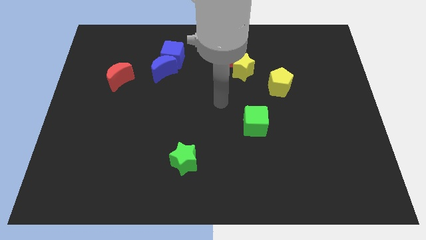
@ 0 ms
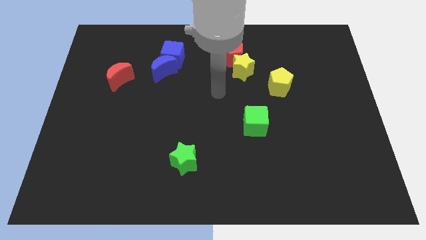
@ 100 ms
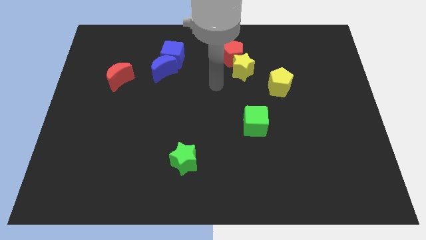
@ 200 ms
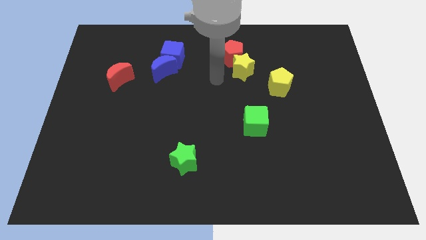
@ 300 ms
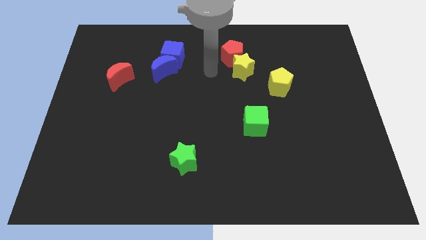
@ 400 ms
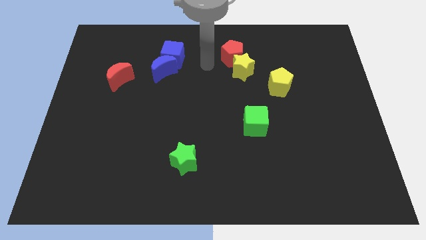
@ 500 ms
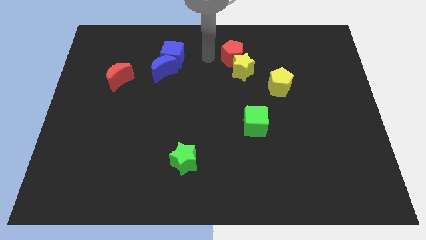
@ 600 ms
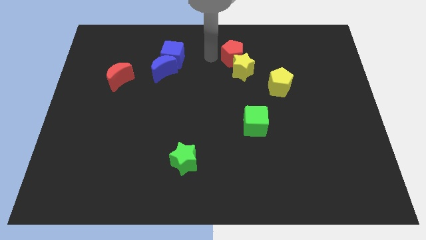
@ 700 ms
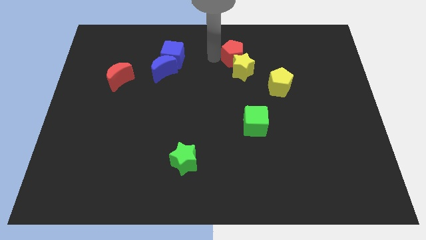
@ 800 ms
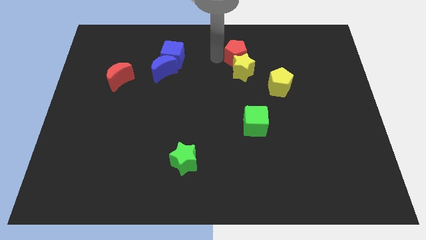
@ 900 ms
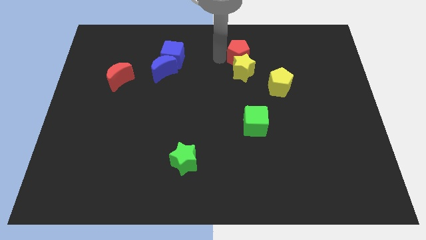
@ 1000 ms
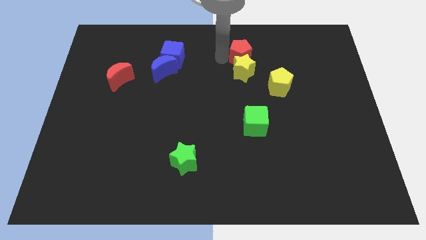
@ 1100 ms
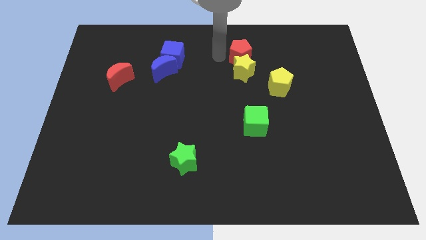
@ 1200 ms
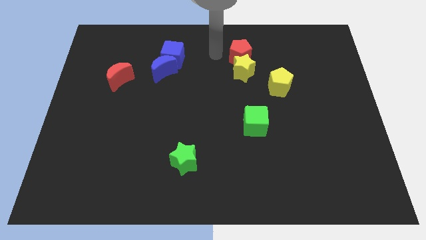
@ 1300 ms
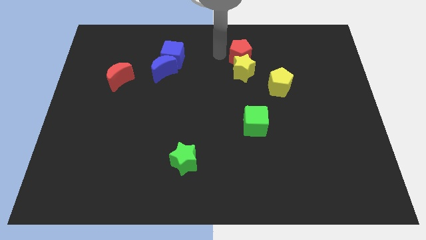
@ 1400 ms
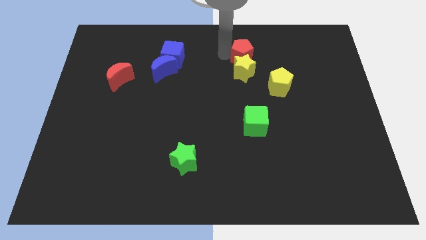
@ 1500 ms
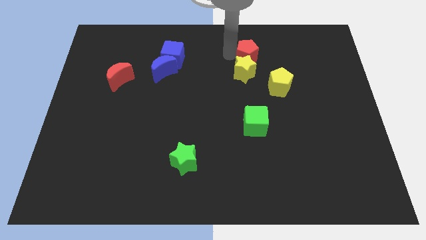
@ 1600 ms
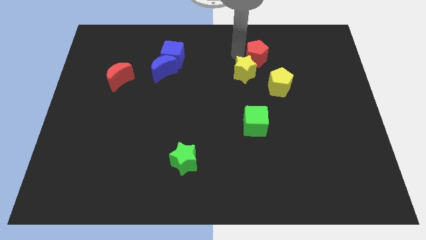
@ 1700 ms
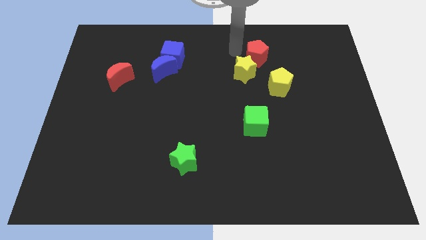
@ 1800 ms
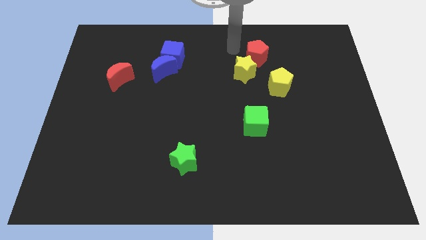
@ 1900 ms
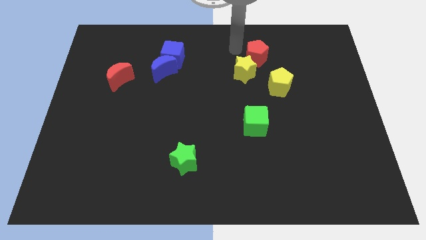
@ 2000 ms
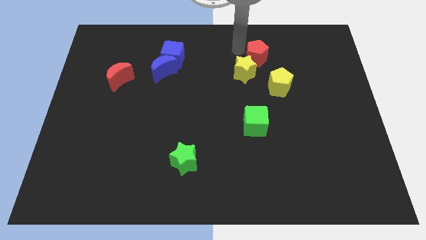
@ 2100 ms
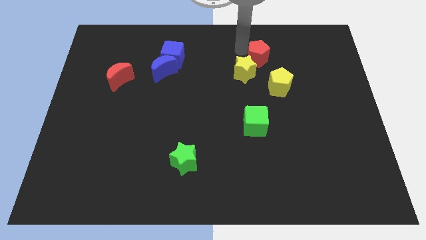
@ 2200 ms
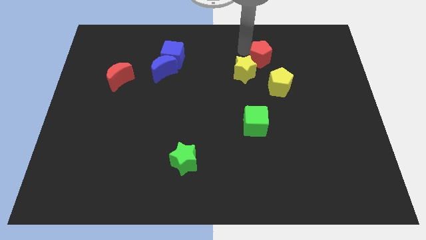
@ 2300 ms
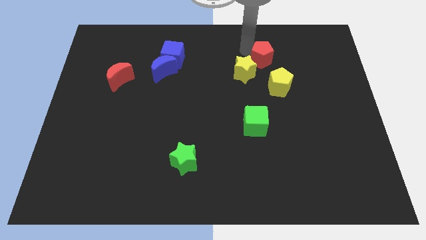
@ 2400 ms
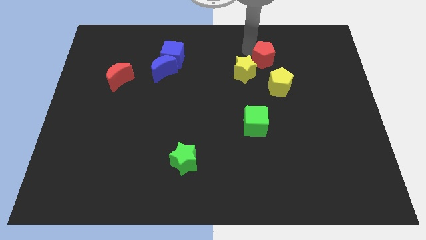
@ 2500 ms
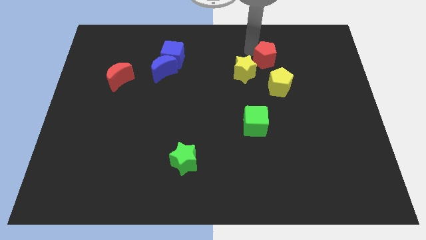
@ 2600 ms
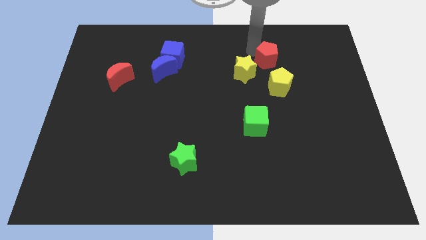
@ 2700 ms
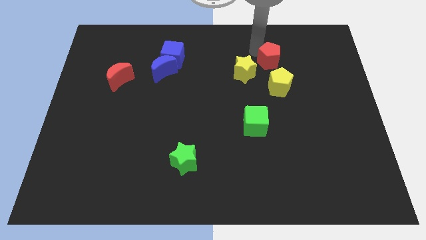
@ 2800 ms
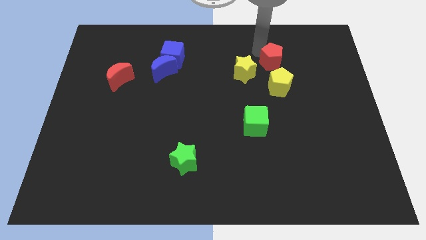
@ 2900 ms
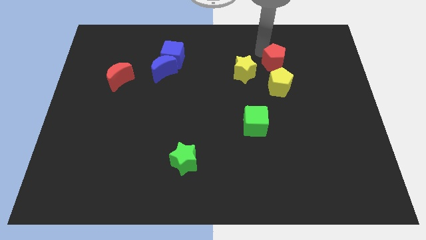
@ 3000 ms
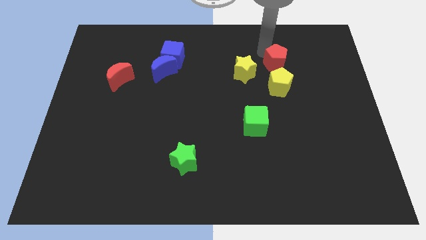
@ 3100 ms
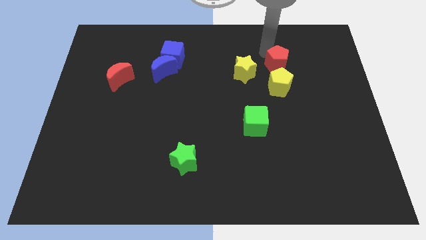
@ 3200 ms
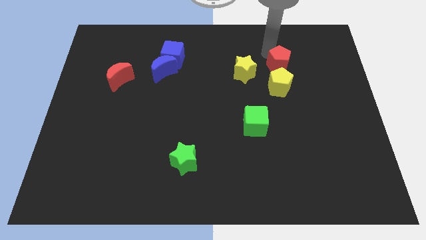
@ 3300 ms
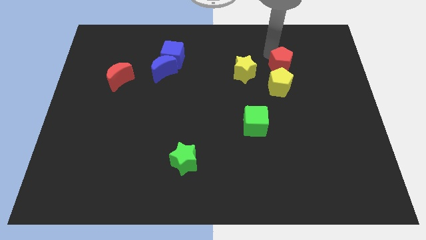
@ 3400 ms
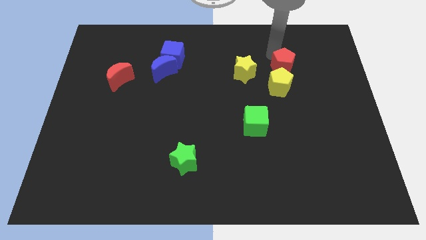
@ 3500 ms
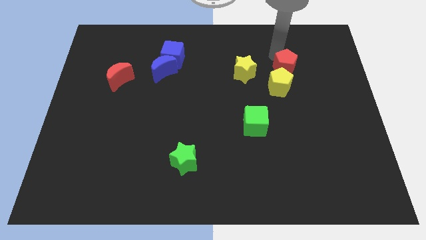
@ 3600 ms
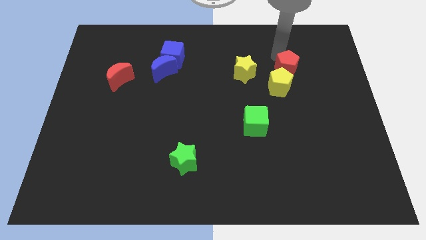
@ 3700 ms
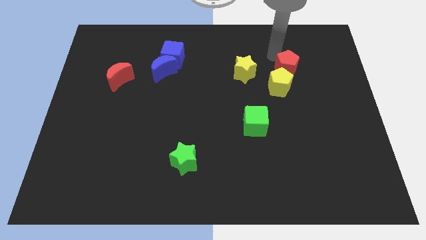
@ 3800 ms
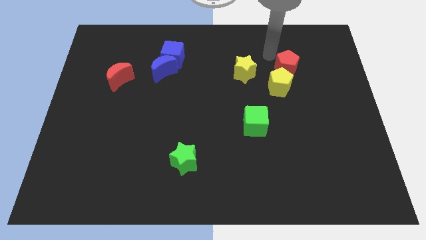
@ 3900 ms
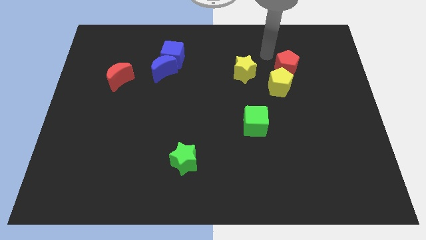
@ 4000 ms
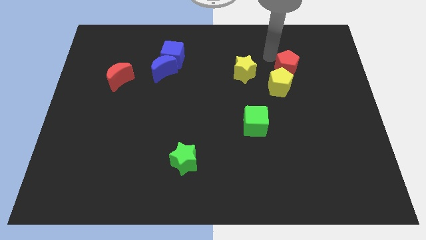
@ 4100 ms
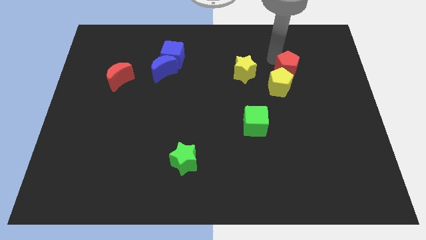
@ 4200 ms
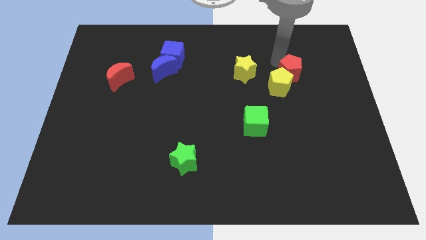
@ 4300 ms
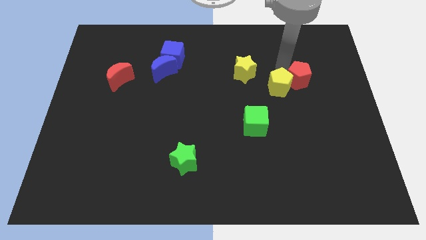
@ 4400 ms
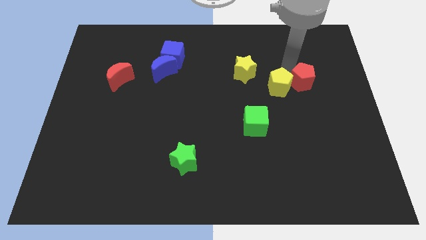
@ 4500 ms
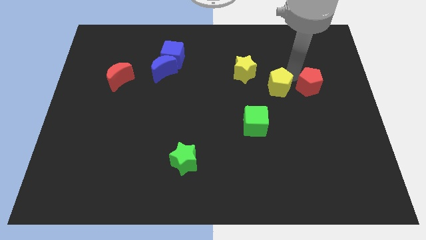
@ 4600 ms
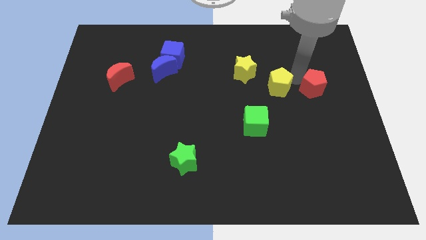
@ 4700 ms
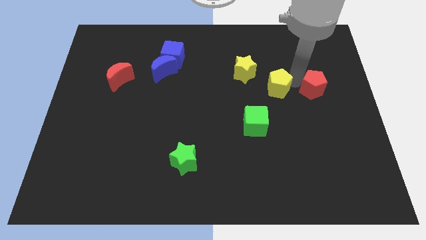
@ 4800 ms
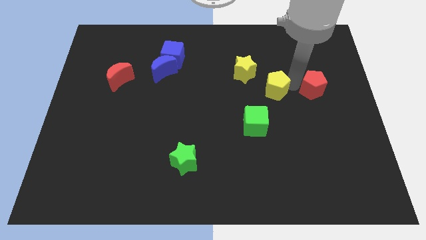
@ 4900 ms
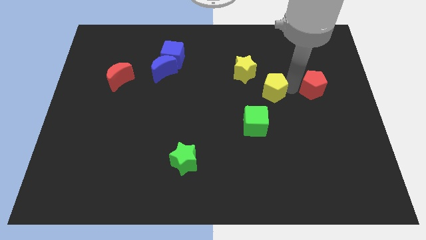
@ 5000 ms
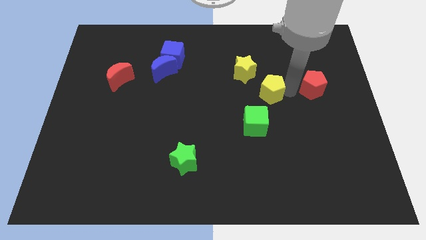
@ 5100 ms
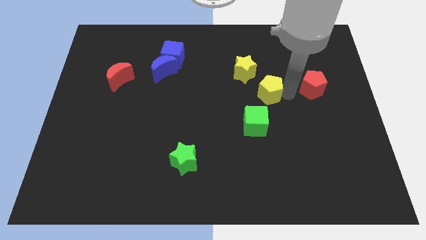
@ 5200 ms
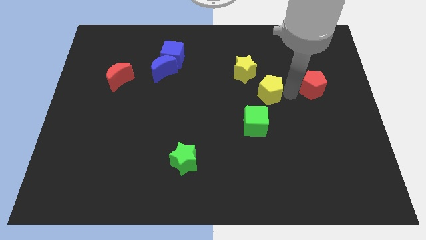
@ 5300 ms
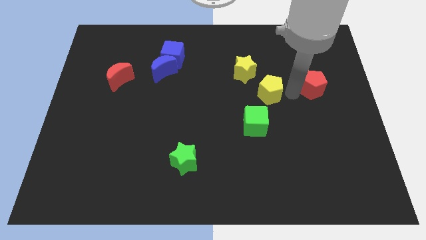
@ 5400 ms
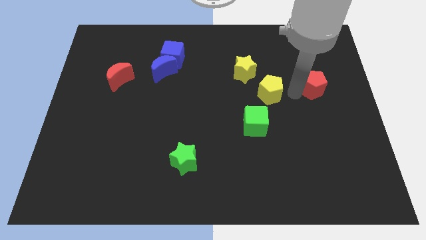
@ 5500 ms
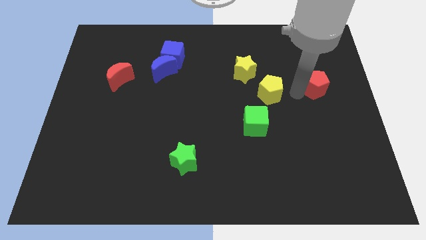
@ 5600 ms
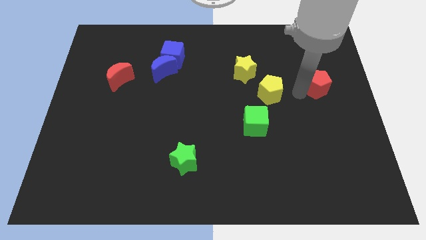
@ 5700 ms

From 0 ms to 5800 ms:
slide the red pentagon to the right side of the board

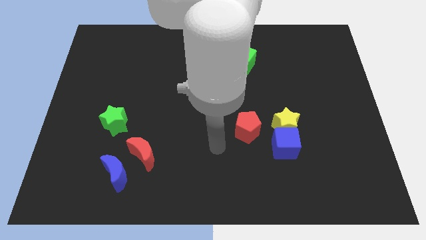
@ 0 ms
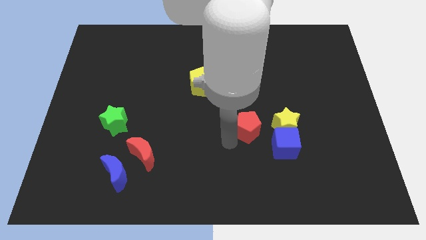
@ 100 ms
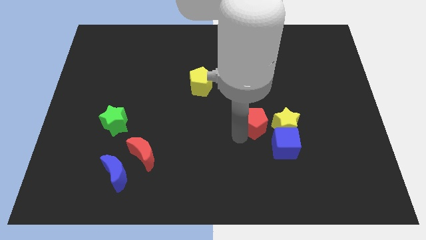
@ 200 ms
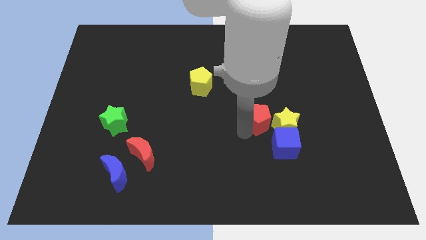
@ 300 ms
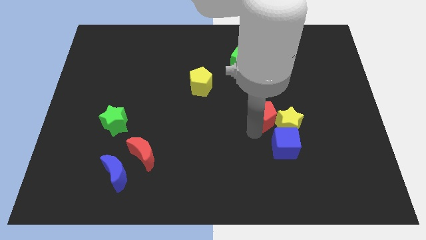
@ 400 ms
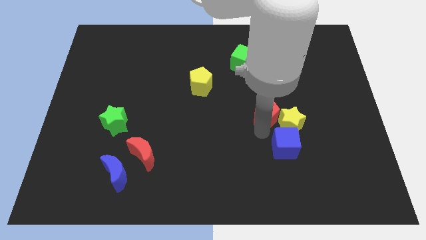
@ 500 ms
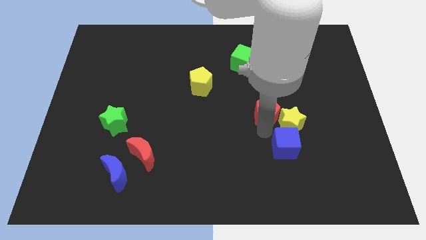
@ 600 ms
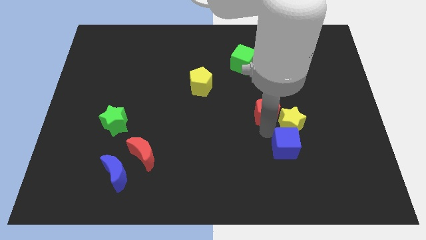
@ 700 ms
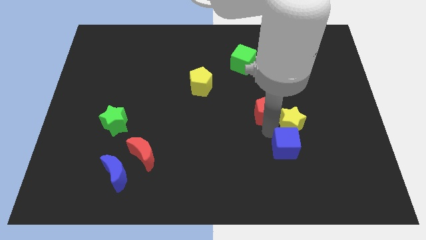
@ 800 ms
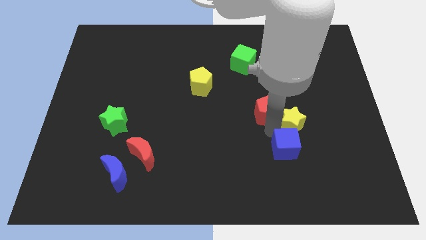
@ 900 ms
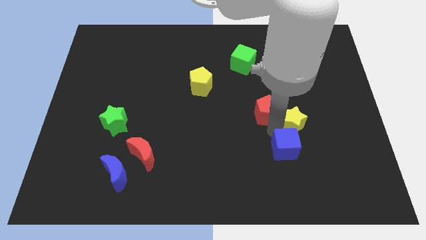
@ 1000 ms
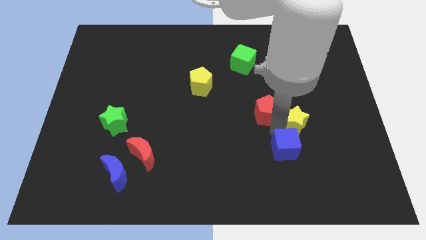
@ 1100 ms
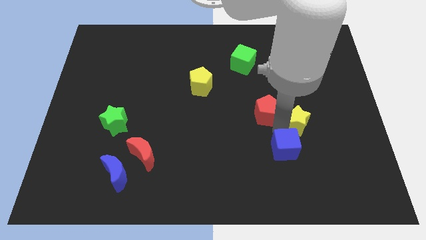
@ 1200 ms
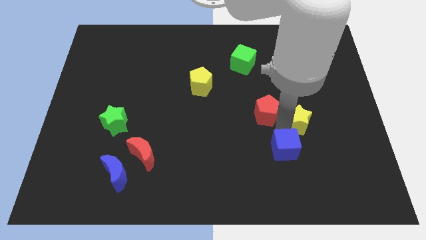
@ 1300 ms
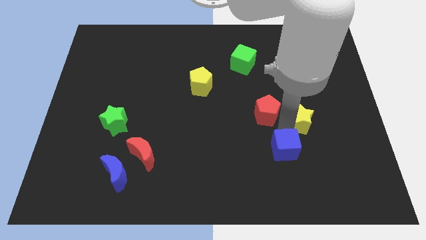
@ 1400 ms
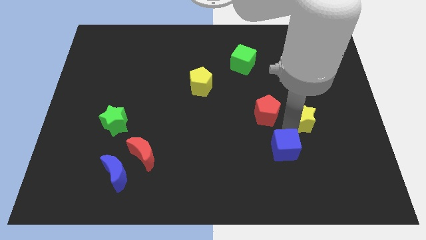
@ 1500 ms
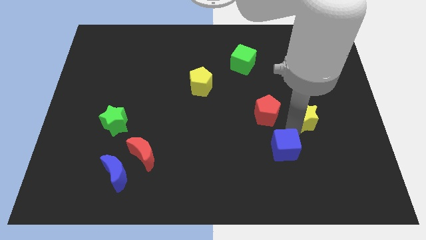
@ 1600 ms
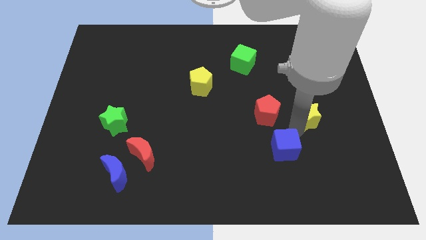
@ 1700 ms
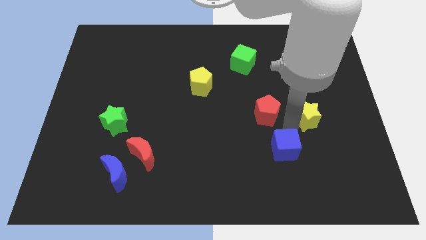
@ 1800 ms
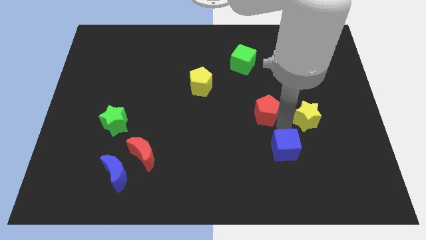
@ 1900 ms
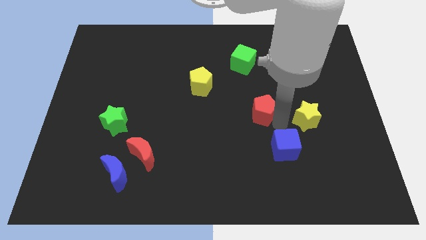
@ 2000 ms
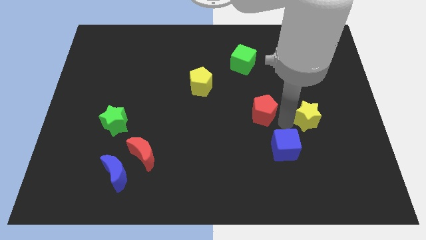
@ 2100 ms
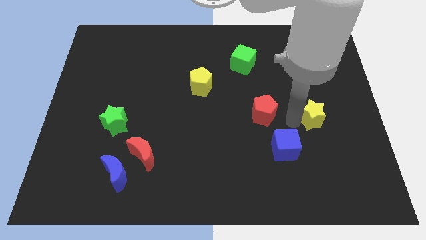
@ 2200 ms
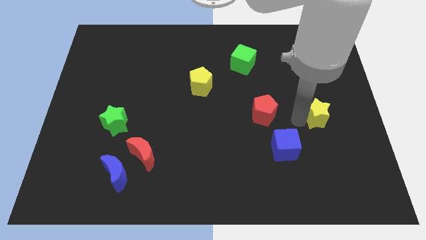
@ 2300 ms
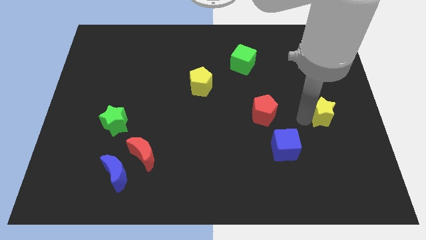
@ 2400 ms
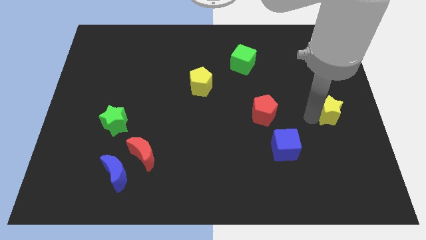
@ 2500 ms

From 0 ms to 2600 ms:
move the yellow star to the right side of the board
